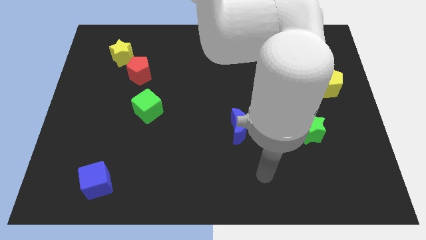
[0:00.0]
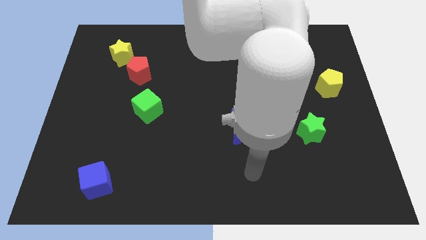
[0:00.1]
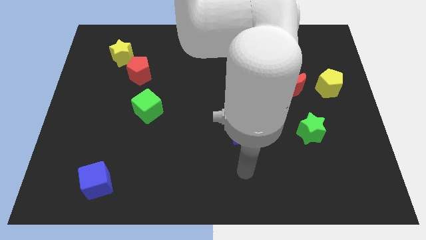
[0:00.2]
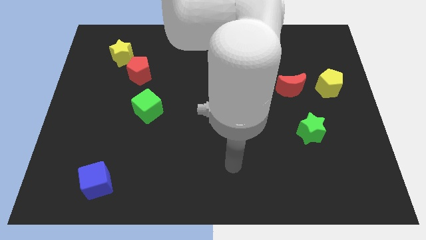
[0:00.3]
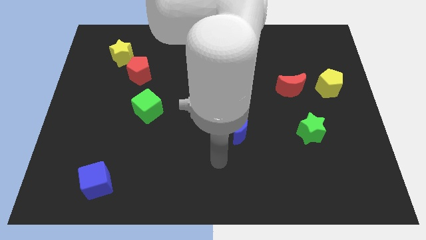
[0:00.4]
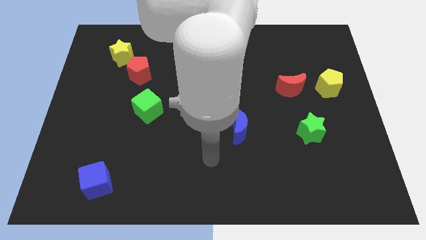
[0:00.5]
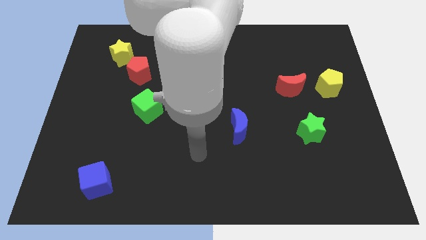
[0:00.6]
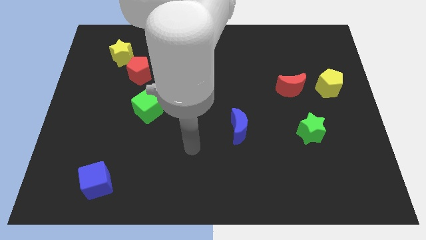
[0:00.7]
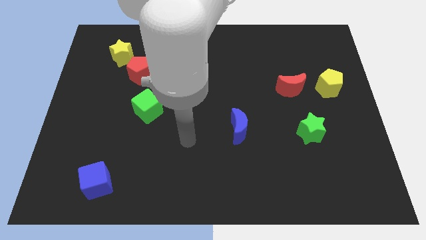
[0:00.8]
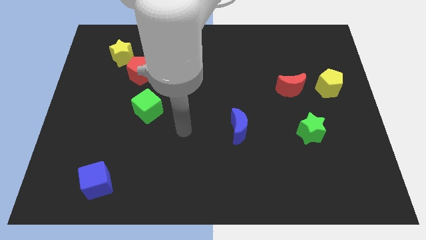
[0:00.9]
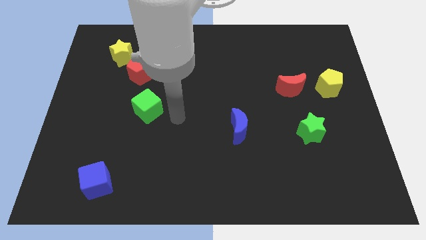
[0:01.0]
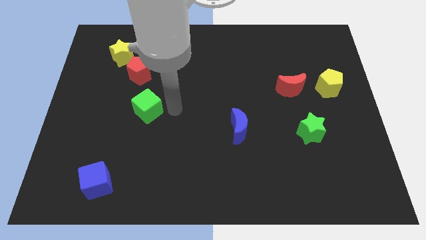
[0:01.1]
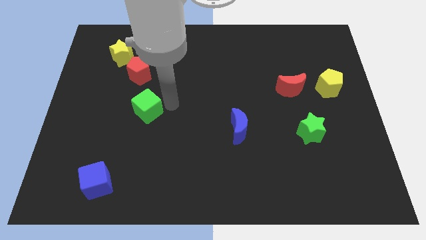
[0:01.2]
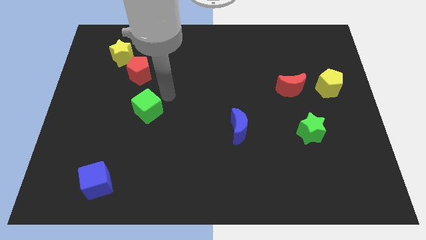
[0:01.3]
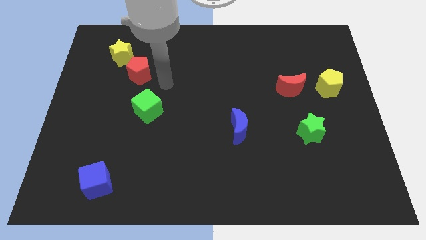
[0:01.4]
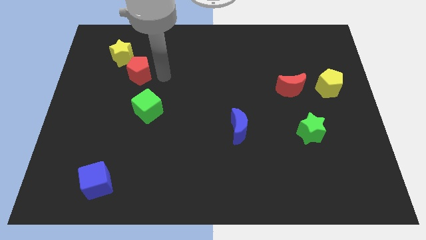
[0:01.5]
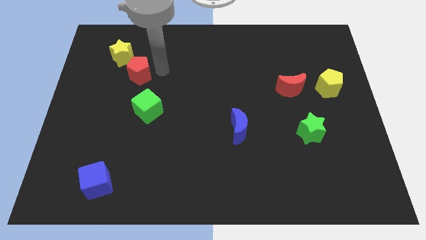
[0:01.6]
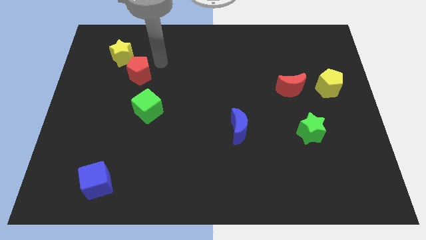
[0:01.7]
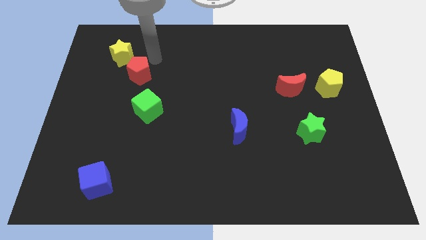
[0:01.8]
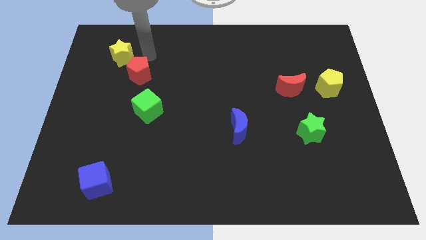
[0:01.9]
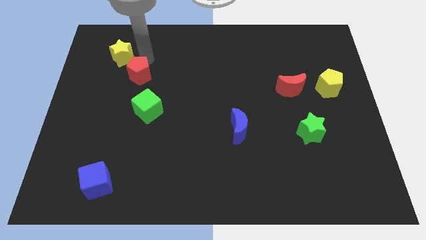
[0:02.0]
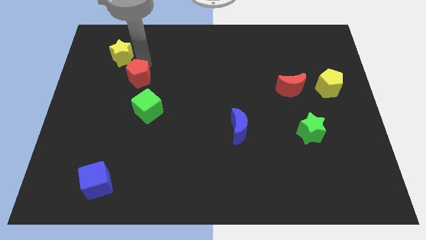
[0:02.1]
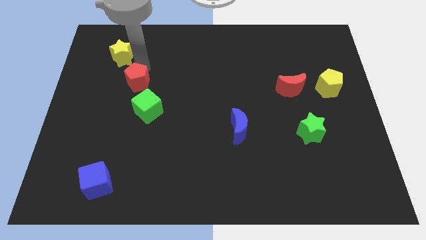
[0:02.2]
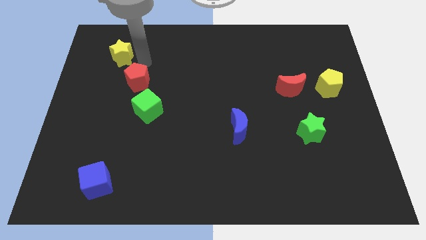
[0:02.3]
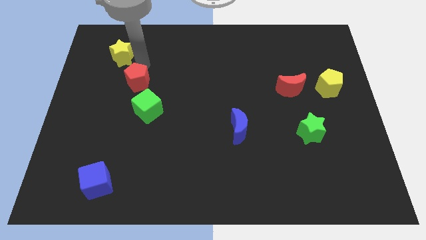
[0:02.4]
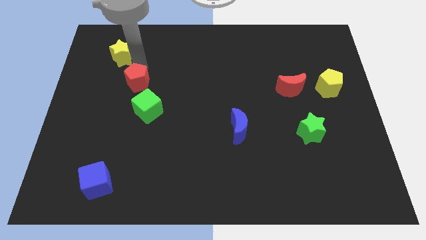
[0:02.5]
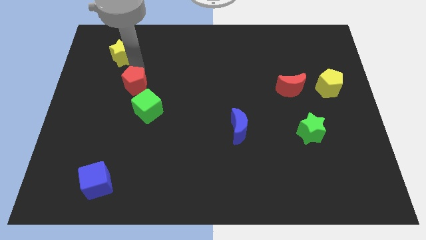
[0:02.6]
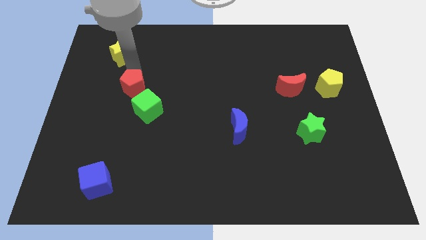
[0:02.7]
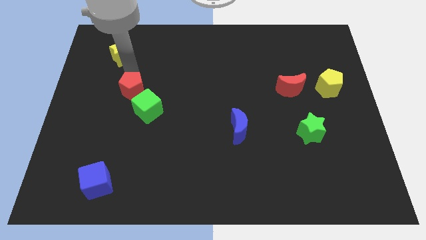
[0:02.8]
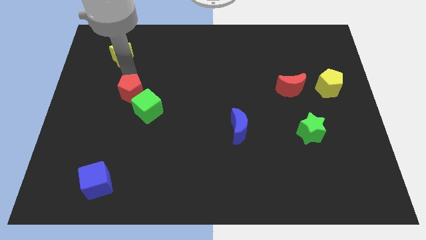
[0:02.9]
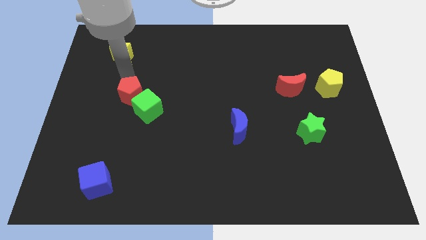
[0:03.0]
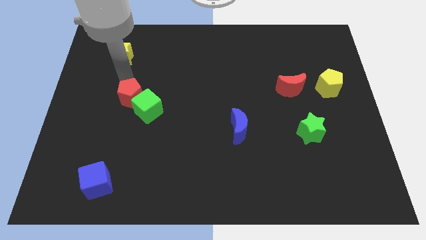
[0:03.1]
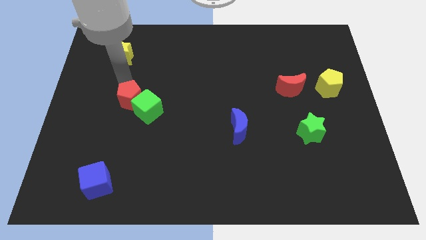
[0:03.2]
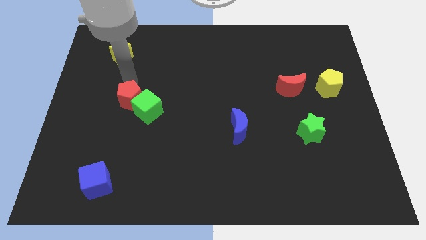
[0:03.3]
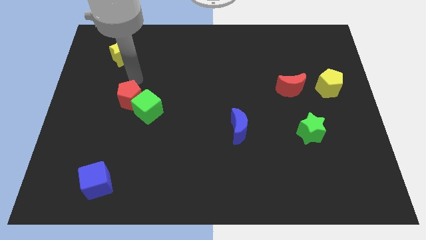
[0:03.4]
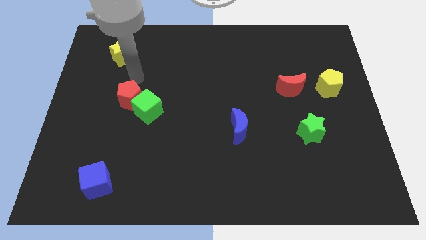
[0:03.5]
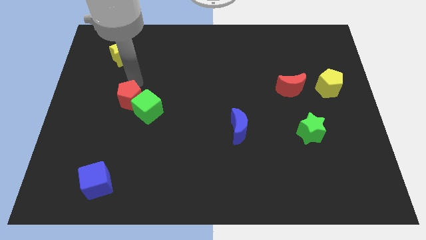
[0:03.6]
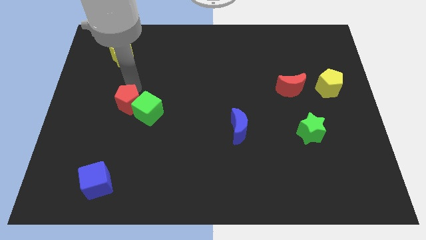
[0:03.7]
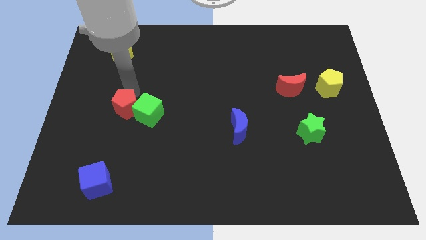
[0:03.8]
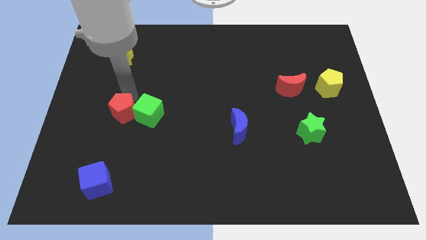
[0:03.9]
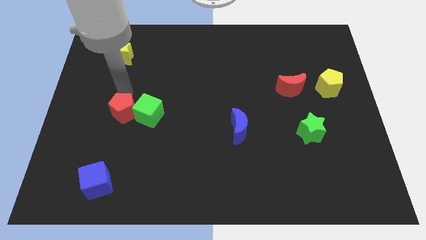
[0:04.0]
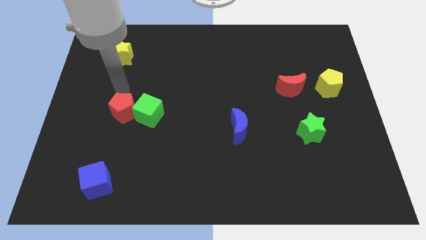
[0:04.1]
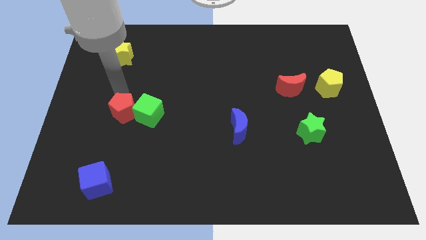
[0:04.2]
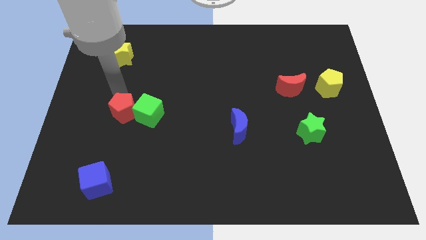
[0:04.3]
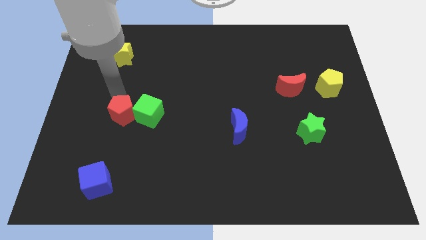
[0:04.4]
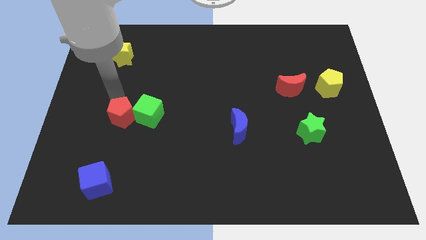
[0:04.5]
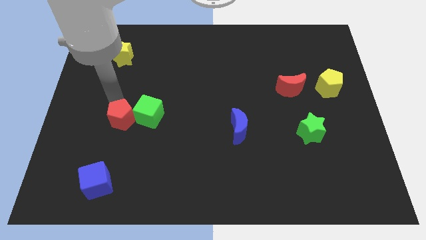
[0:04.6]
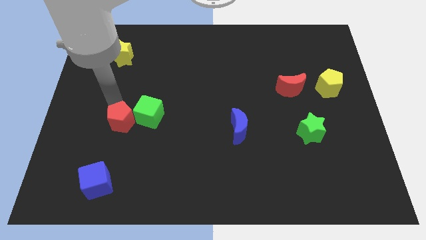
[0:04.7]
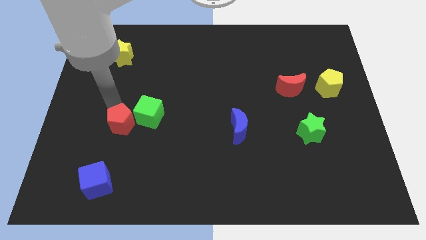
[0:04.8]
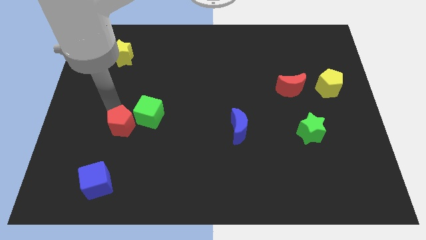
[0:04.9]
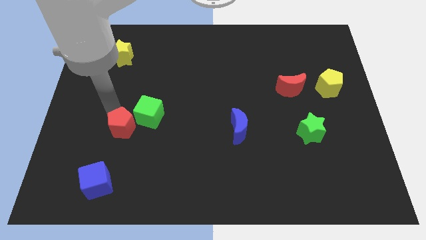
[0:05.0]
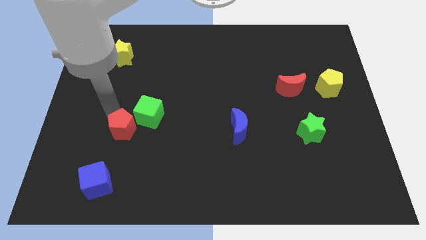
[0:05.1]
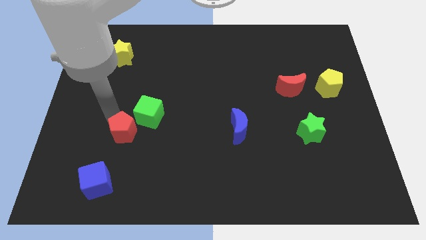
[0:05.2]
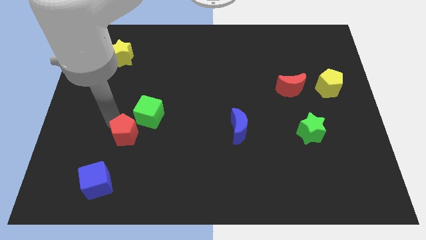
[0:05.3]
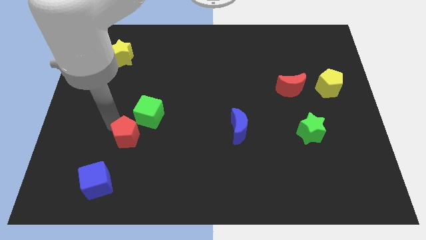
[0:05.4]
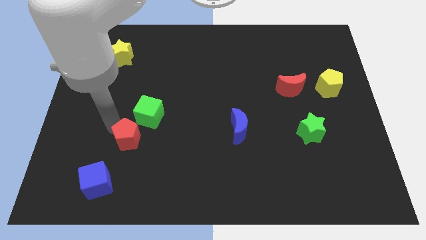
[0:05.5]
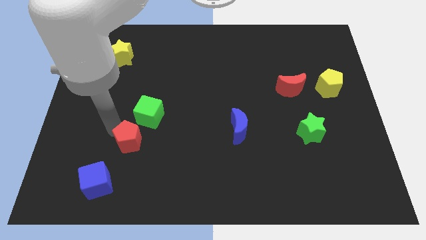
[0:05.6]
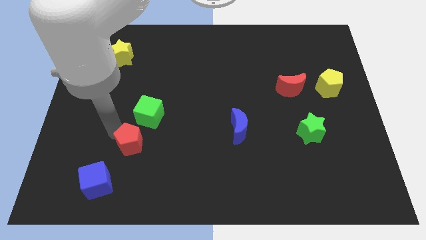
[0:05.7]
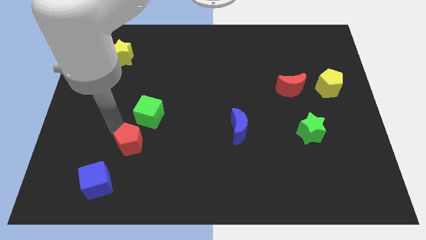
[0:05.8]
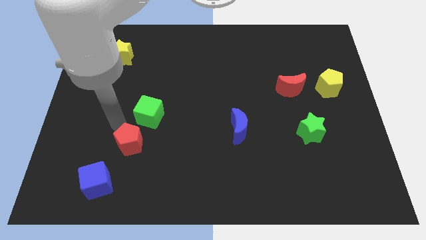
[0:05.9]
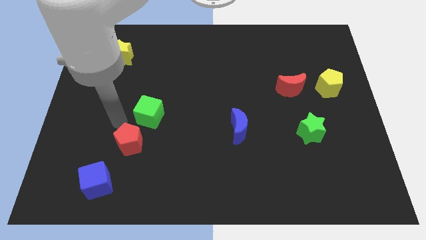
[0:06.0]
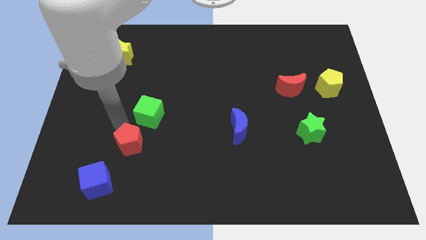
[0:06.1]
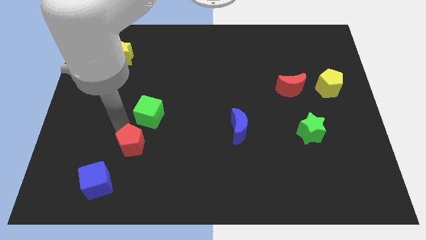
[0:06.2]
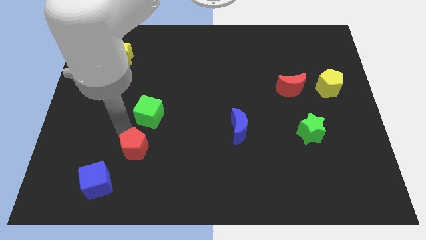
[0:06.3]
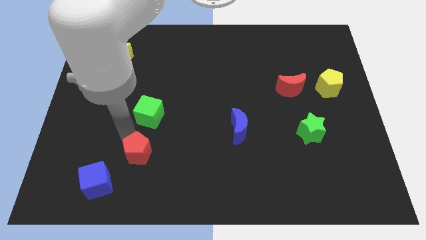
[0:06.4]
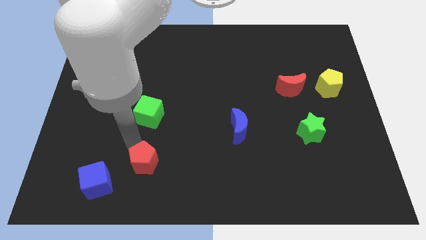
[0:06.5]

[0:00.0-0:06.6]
put the red pentagon to the right side of the blue cube

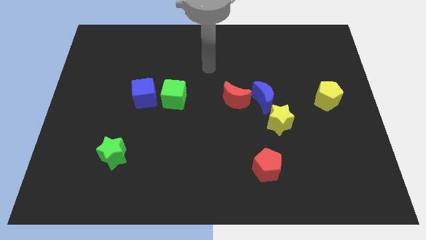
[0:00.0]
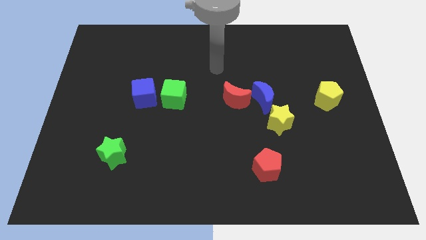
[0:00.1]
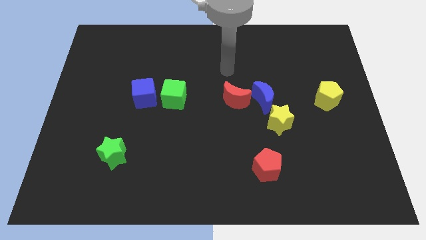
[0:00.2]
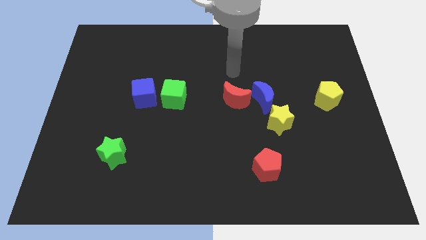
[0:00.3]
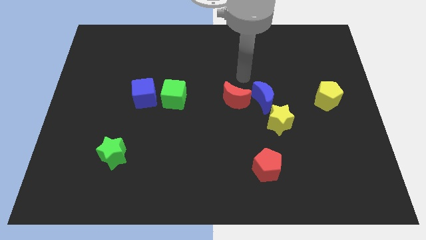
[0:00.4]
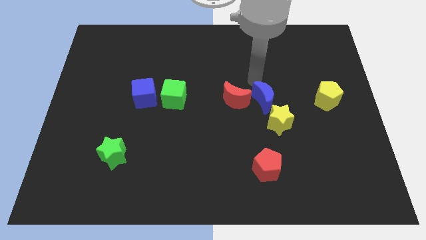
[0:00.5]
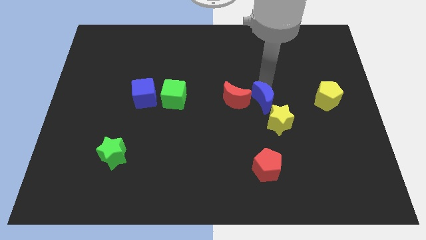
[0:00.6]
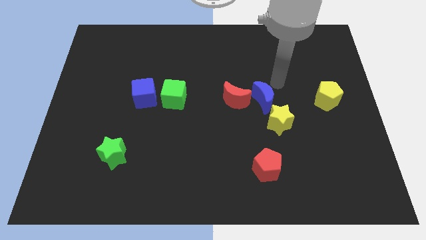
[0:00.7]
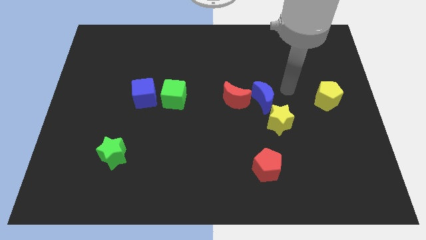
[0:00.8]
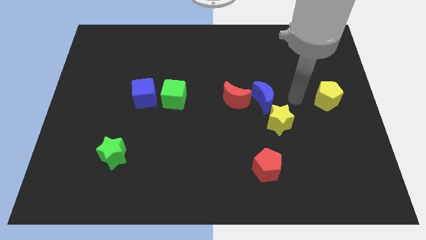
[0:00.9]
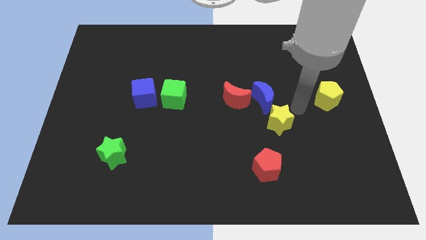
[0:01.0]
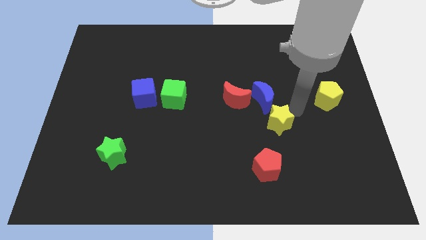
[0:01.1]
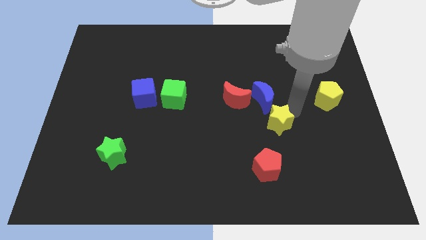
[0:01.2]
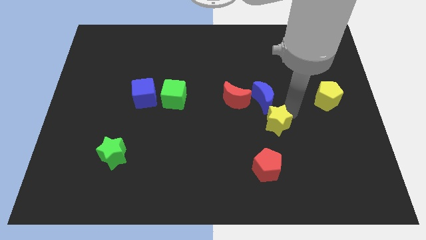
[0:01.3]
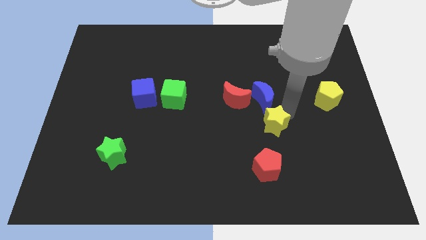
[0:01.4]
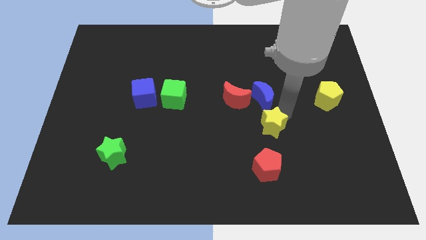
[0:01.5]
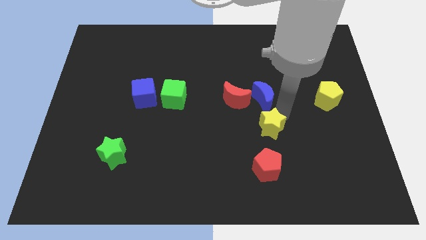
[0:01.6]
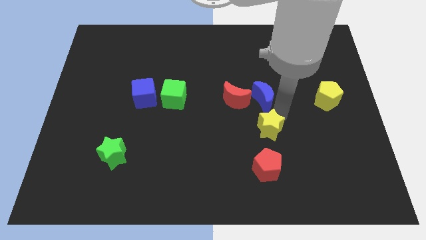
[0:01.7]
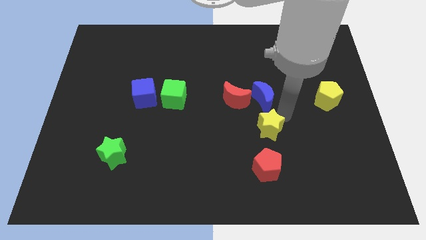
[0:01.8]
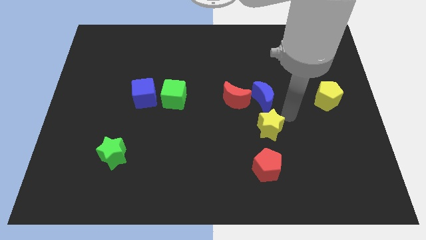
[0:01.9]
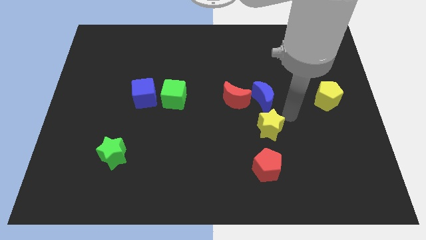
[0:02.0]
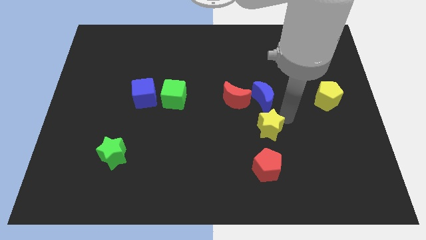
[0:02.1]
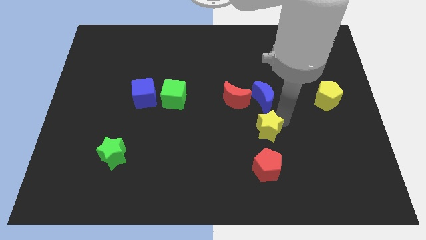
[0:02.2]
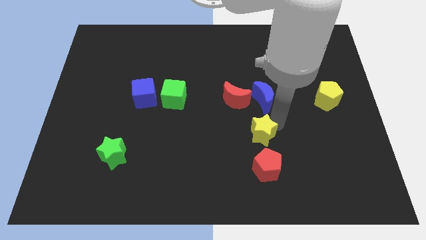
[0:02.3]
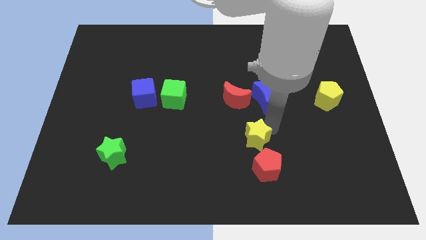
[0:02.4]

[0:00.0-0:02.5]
move the yellow star to the top left of the red pentagon
